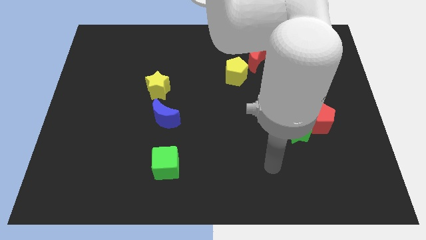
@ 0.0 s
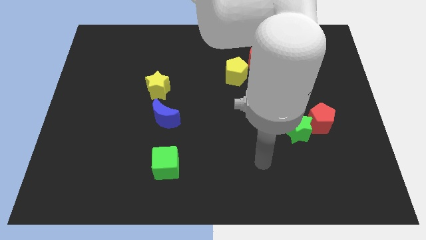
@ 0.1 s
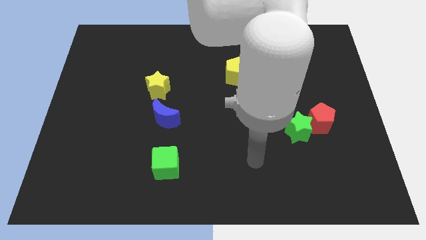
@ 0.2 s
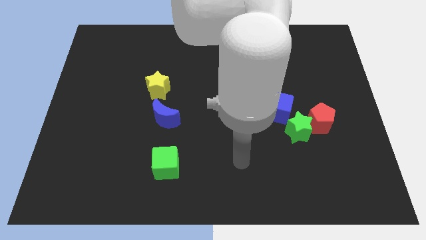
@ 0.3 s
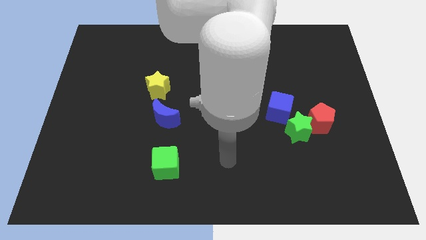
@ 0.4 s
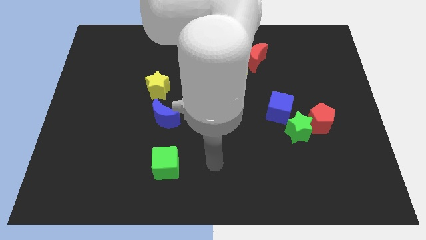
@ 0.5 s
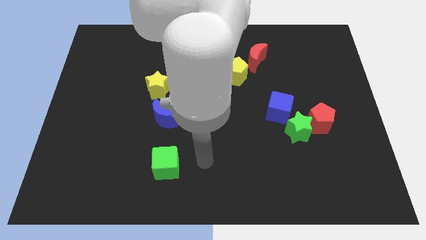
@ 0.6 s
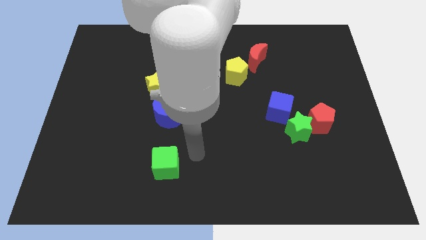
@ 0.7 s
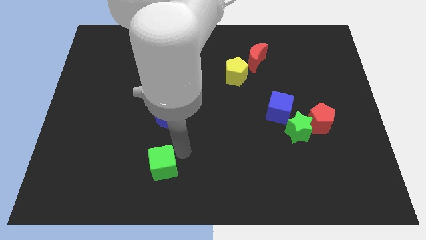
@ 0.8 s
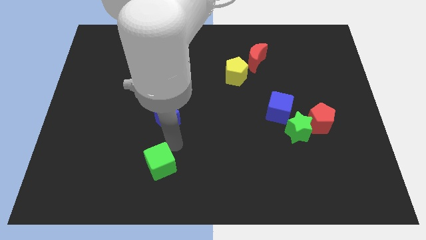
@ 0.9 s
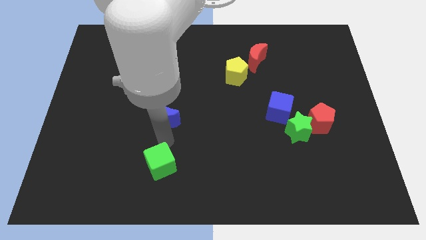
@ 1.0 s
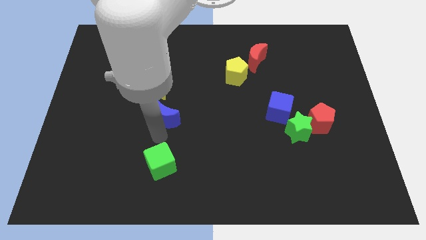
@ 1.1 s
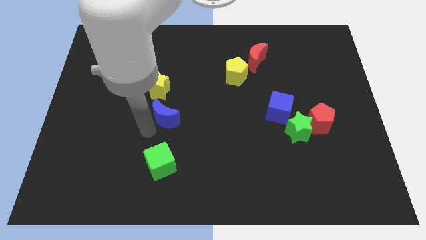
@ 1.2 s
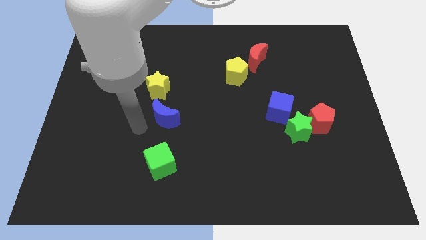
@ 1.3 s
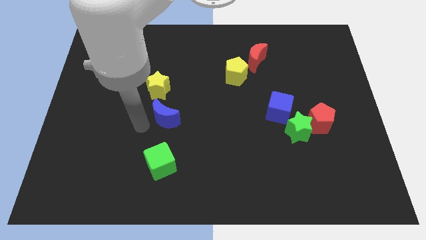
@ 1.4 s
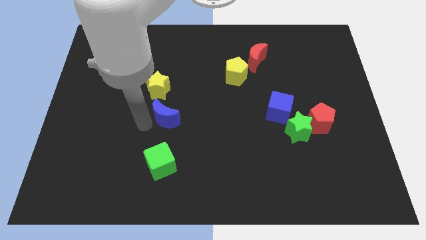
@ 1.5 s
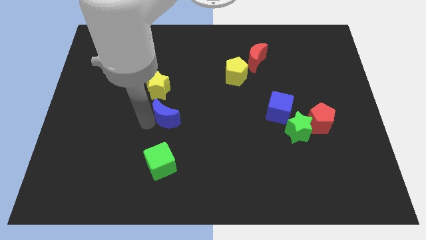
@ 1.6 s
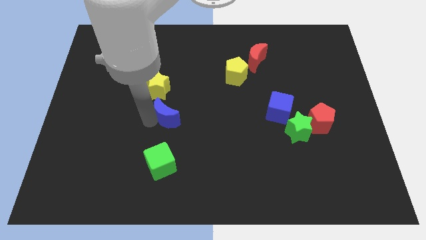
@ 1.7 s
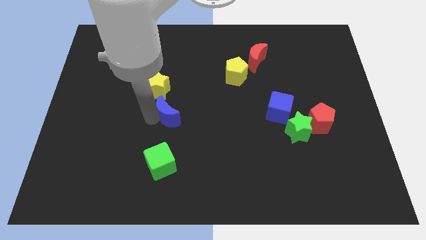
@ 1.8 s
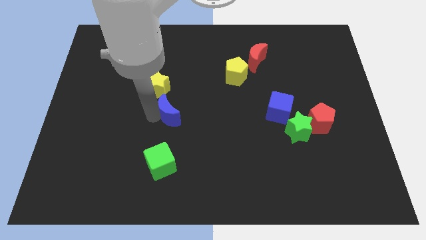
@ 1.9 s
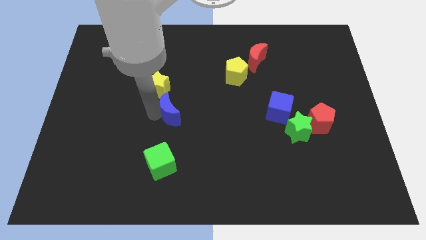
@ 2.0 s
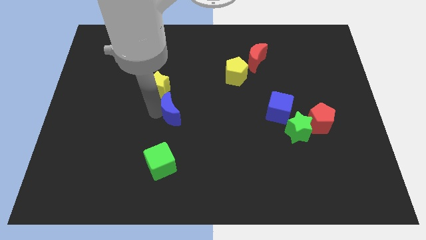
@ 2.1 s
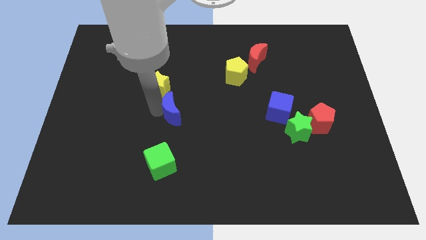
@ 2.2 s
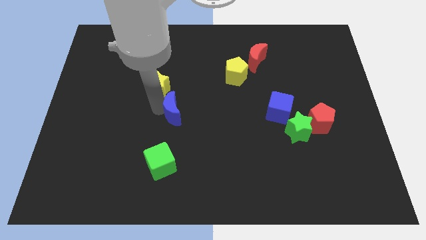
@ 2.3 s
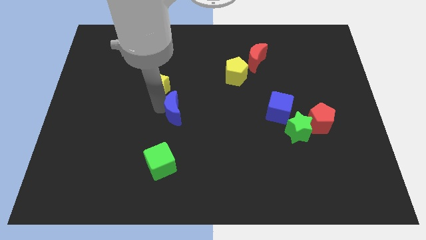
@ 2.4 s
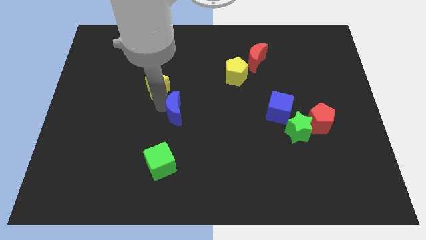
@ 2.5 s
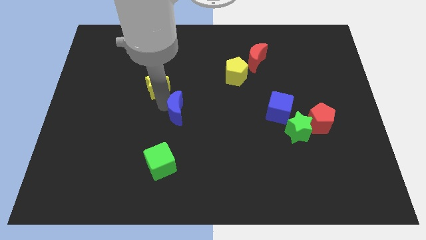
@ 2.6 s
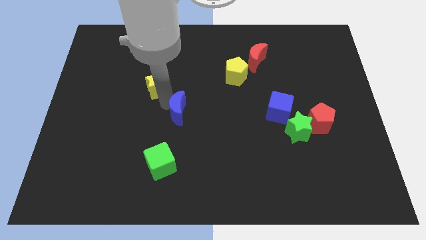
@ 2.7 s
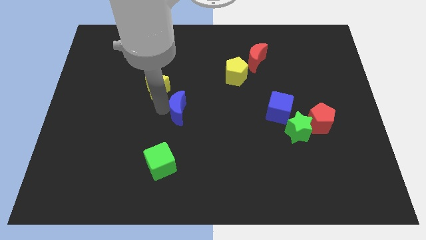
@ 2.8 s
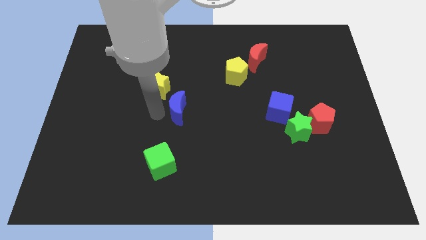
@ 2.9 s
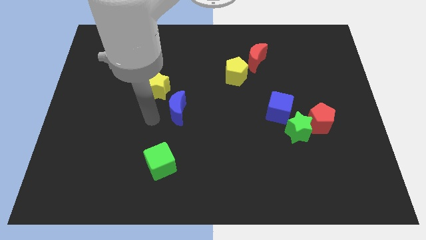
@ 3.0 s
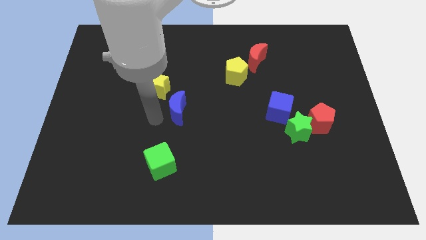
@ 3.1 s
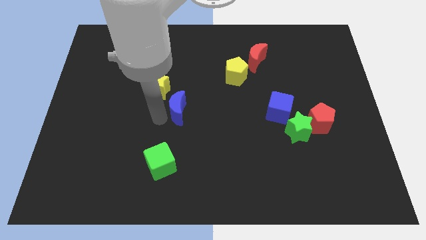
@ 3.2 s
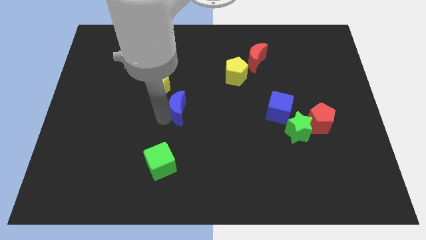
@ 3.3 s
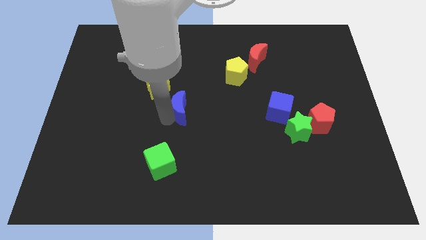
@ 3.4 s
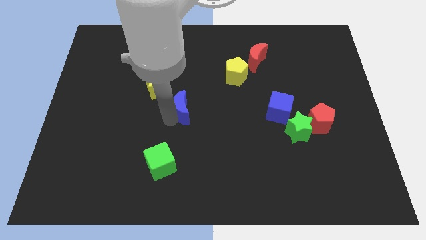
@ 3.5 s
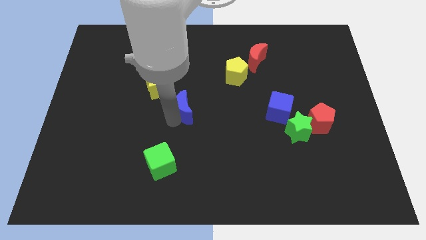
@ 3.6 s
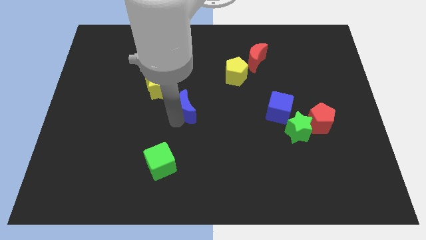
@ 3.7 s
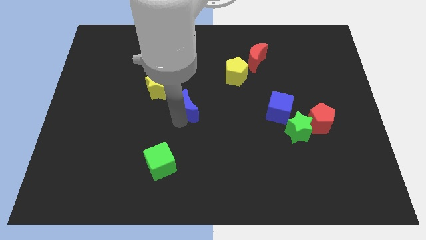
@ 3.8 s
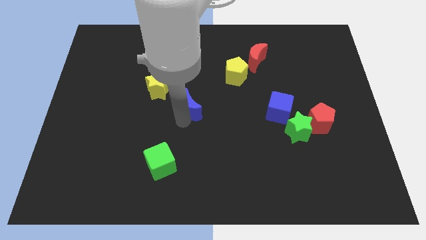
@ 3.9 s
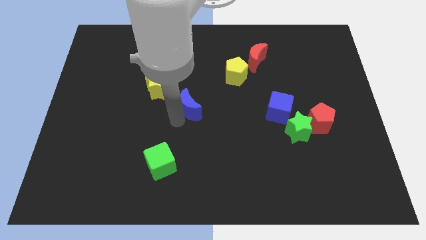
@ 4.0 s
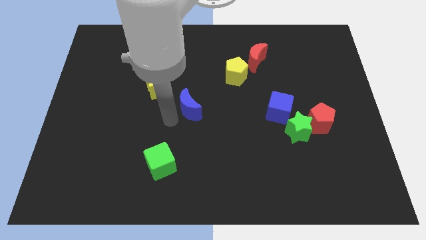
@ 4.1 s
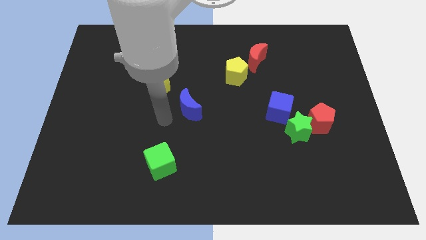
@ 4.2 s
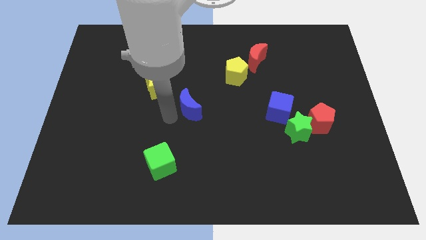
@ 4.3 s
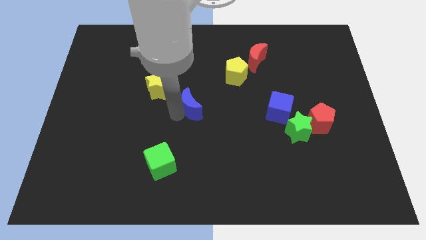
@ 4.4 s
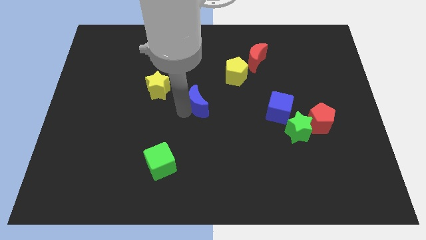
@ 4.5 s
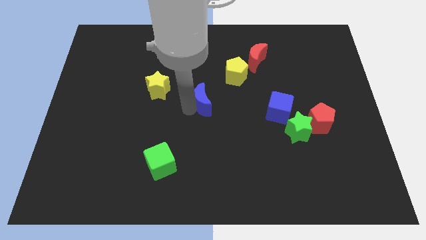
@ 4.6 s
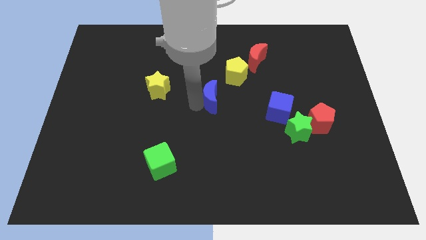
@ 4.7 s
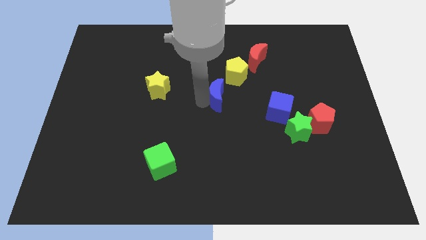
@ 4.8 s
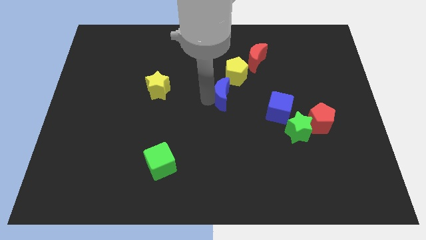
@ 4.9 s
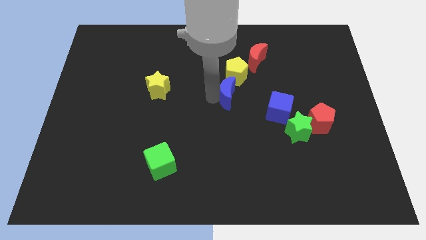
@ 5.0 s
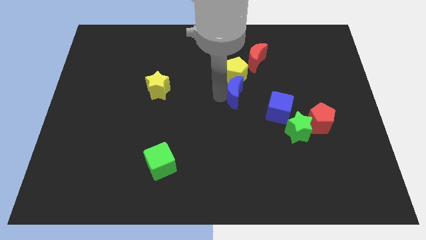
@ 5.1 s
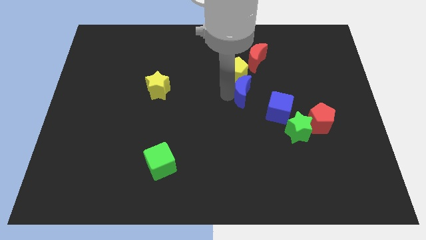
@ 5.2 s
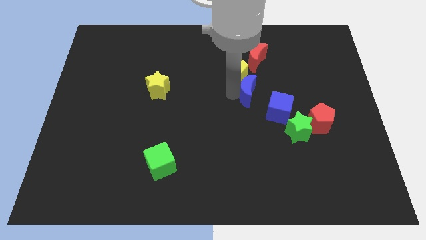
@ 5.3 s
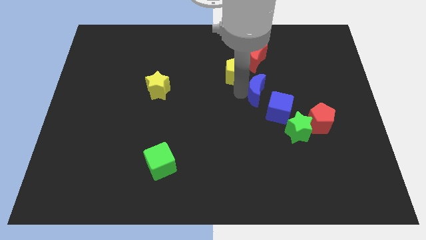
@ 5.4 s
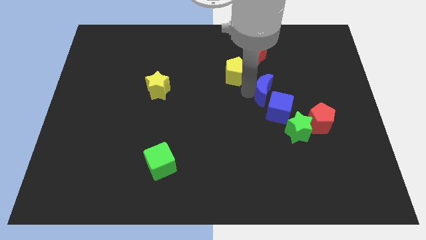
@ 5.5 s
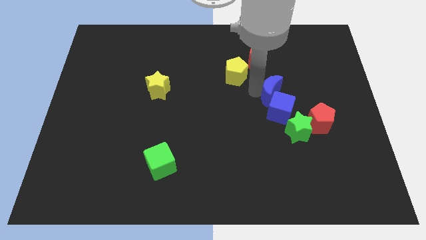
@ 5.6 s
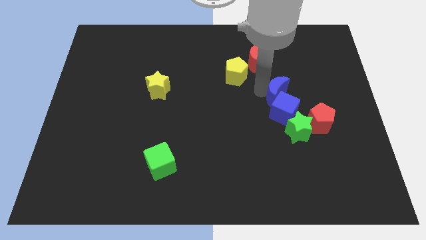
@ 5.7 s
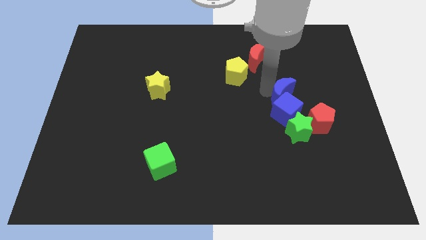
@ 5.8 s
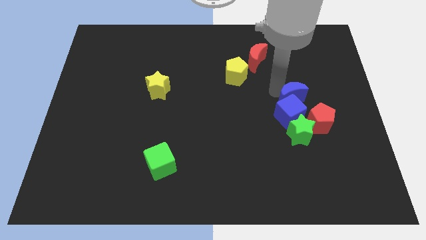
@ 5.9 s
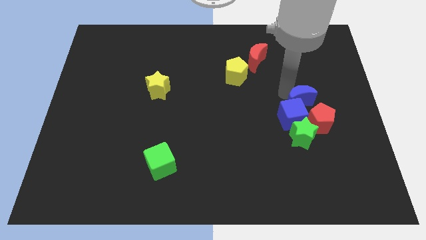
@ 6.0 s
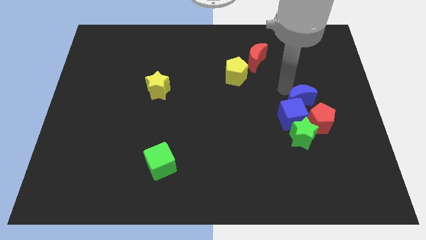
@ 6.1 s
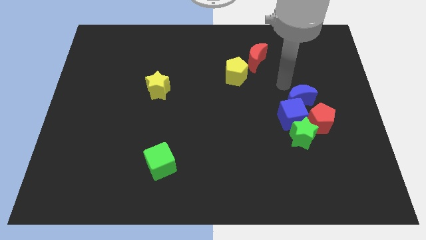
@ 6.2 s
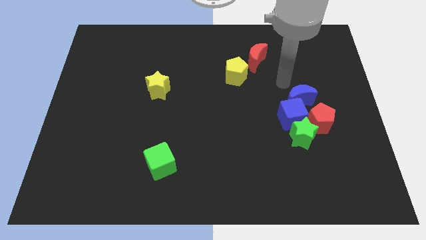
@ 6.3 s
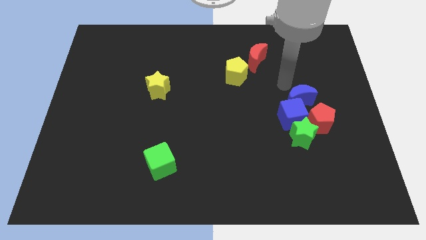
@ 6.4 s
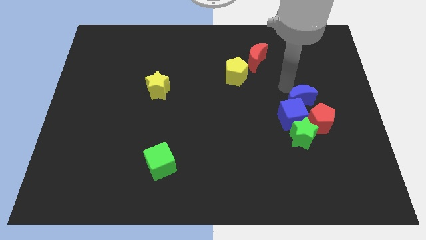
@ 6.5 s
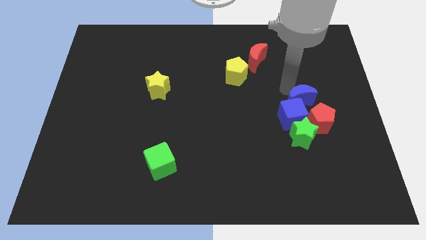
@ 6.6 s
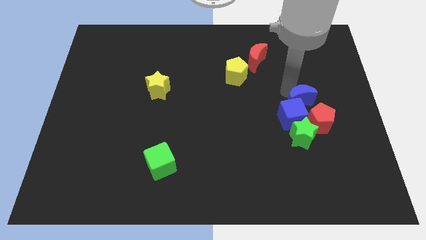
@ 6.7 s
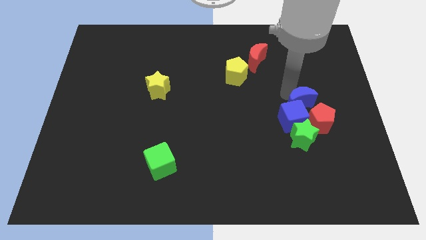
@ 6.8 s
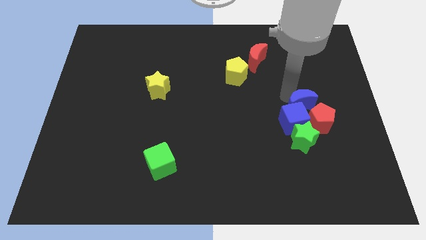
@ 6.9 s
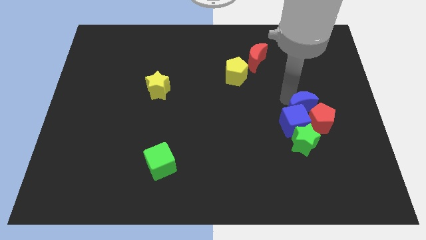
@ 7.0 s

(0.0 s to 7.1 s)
push the blue moon next to the red pentagon

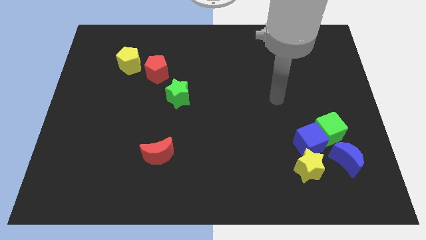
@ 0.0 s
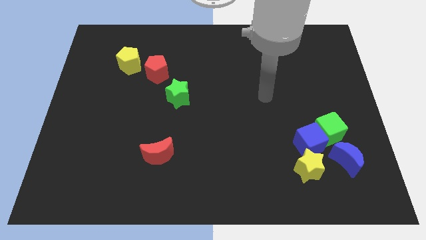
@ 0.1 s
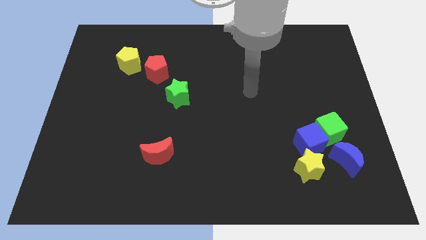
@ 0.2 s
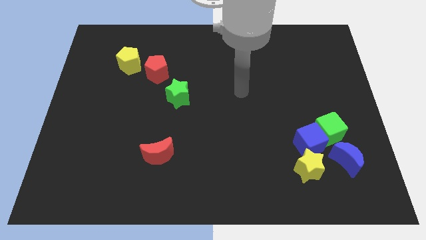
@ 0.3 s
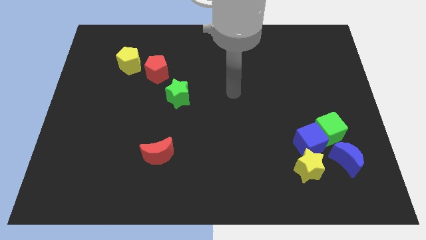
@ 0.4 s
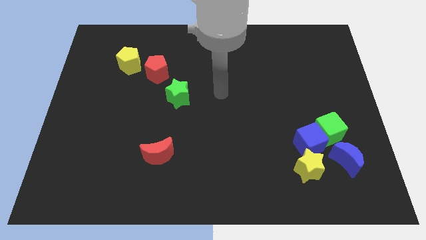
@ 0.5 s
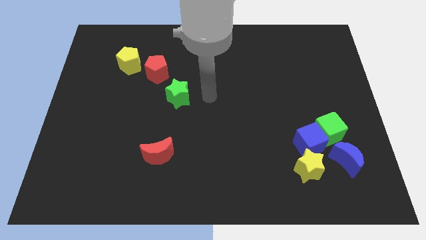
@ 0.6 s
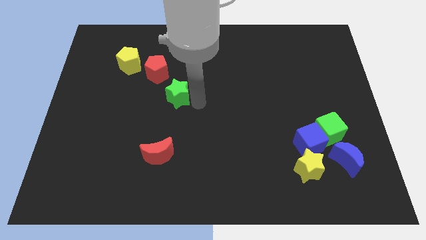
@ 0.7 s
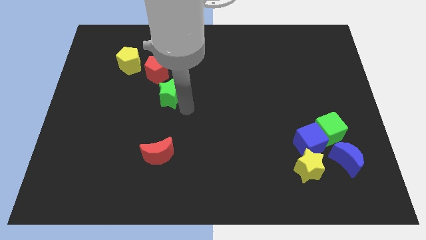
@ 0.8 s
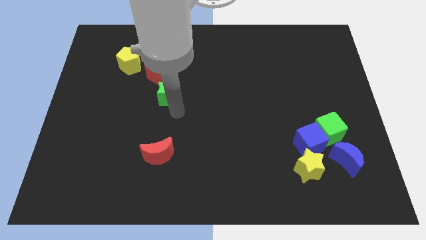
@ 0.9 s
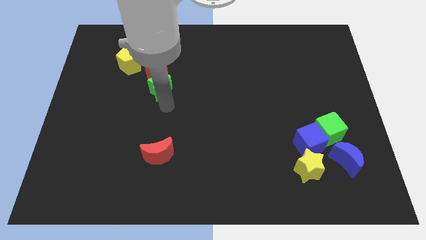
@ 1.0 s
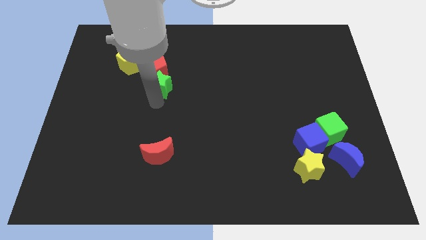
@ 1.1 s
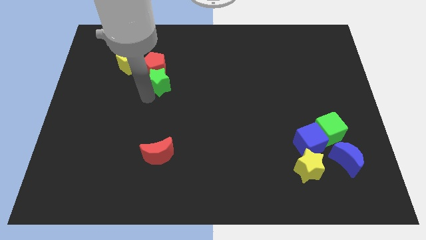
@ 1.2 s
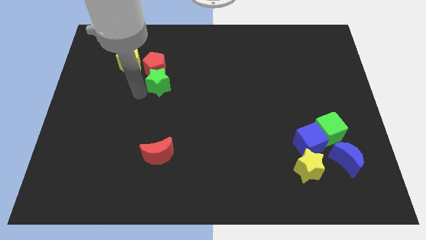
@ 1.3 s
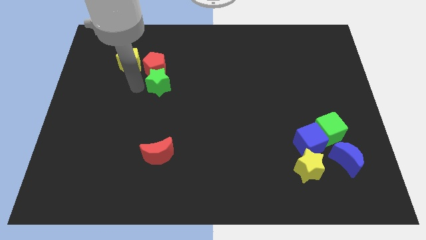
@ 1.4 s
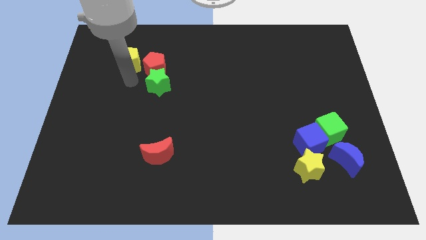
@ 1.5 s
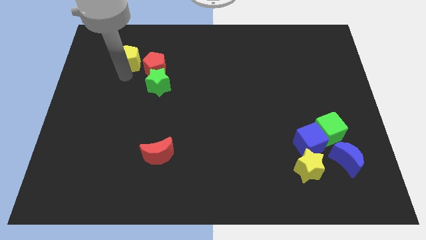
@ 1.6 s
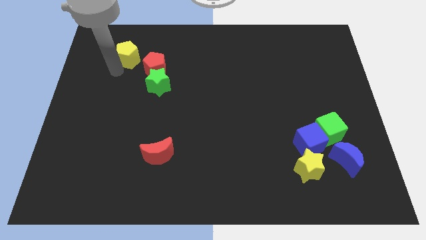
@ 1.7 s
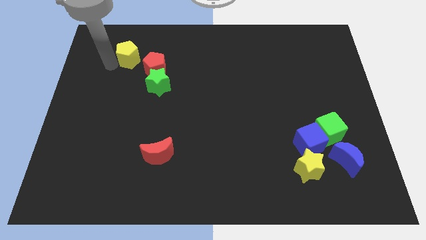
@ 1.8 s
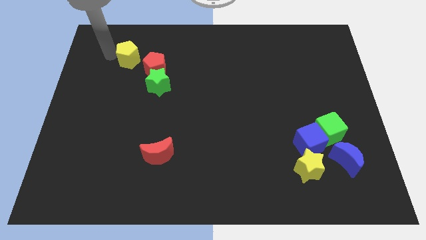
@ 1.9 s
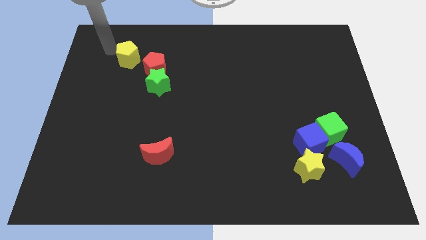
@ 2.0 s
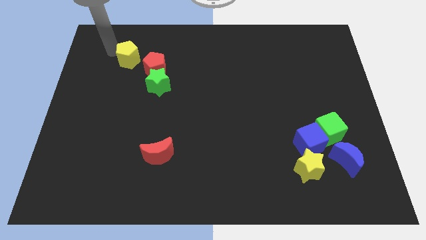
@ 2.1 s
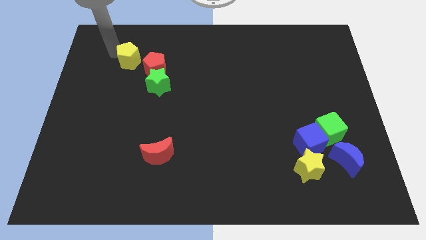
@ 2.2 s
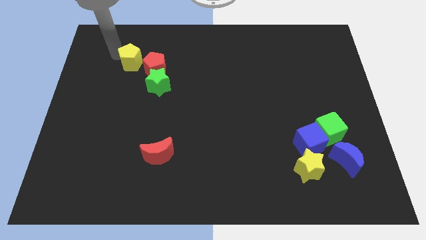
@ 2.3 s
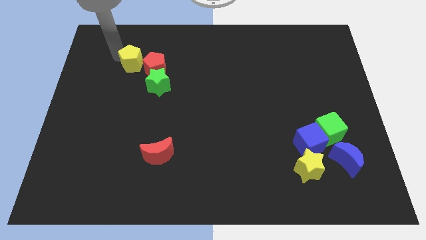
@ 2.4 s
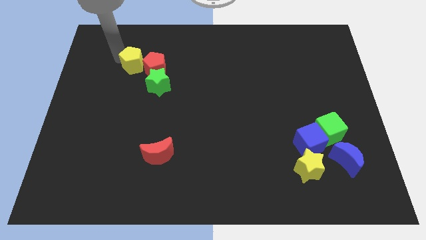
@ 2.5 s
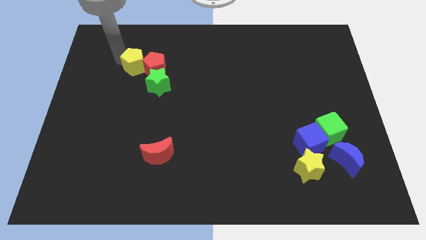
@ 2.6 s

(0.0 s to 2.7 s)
push the yellow pentagon to the red pentagon
